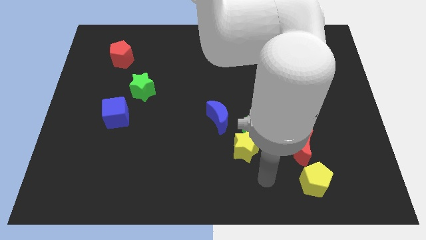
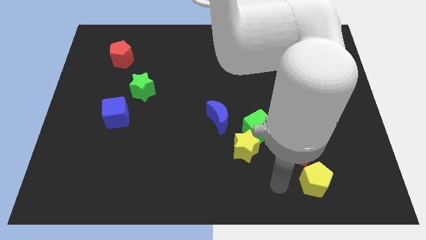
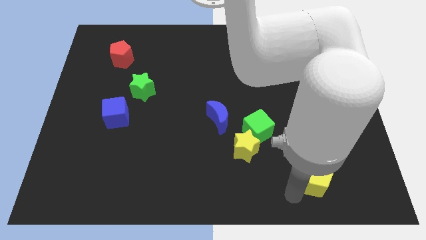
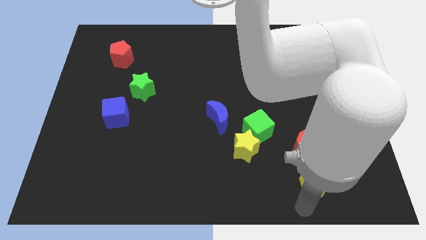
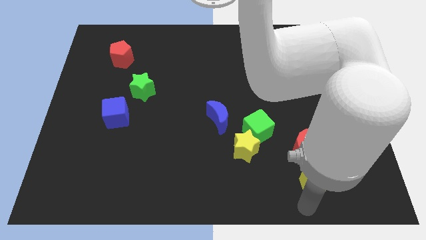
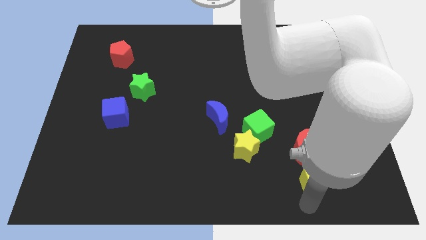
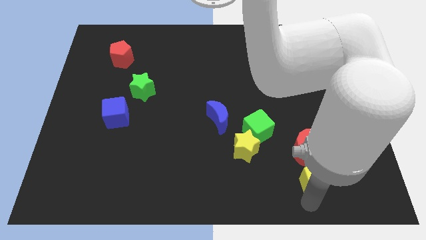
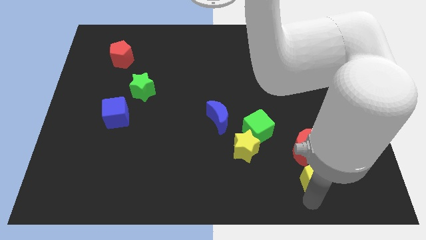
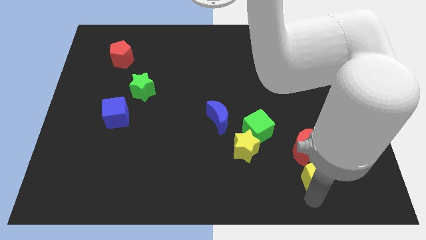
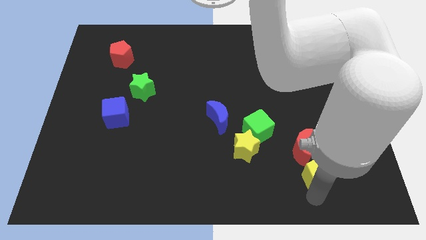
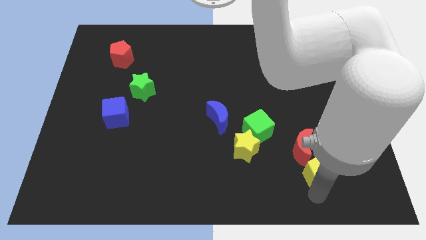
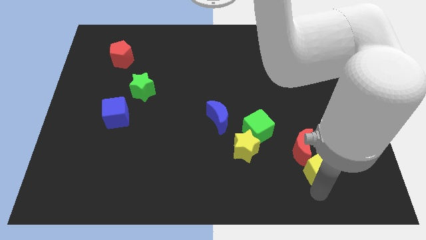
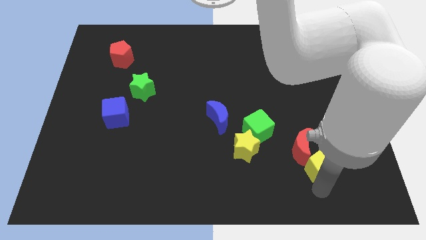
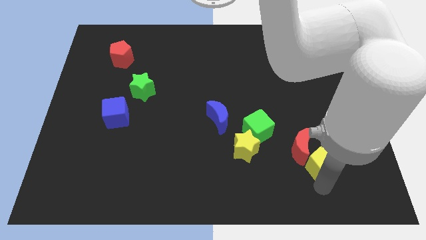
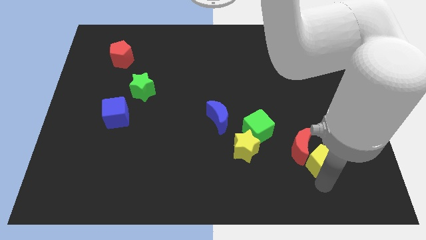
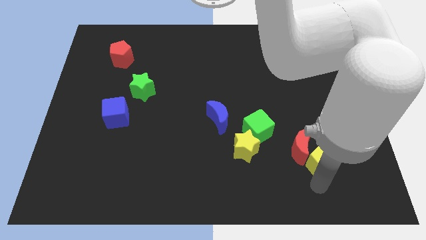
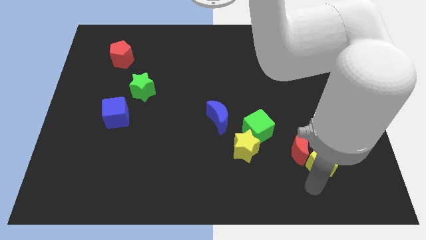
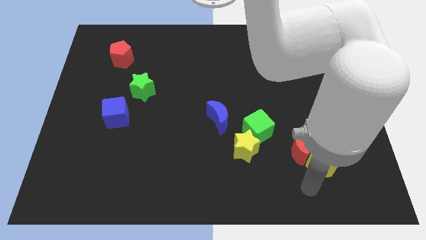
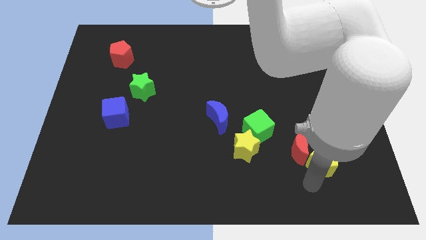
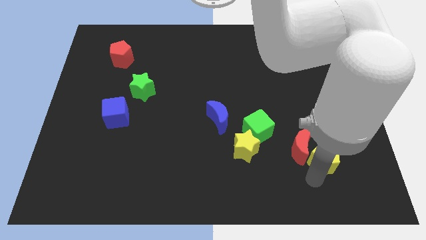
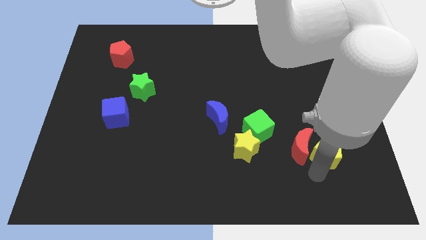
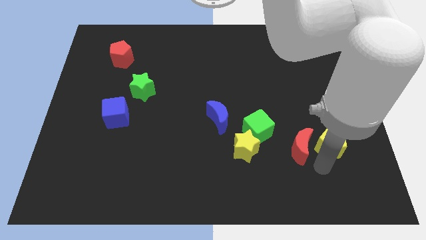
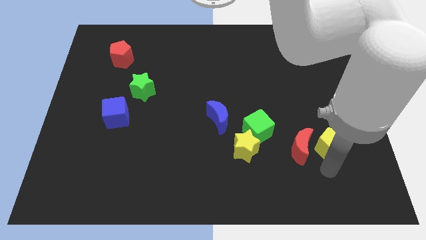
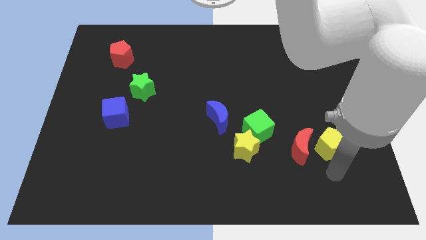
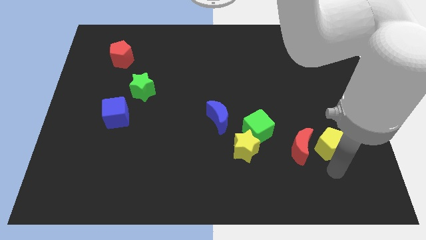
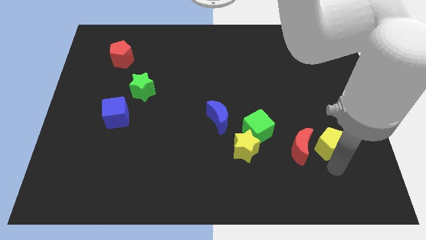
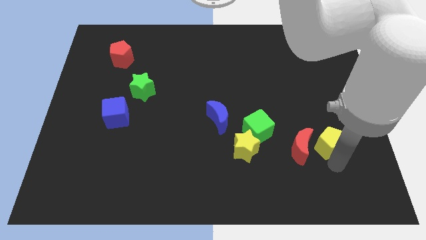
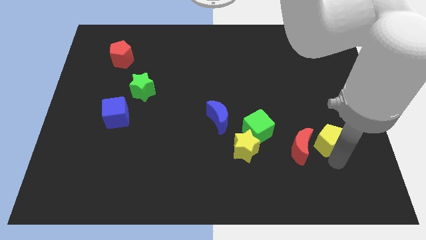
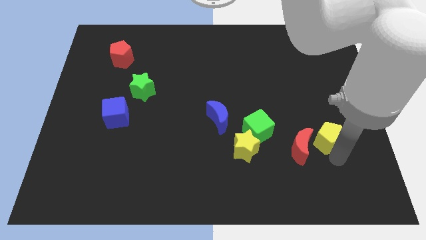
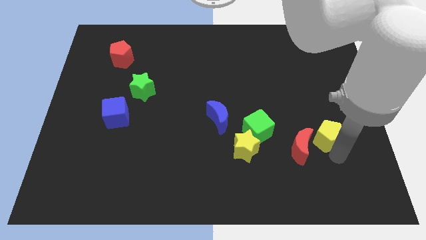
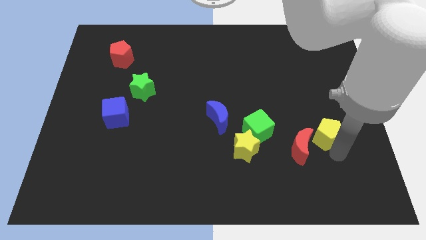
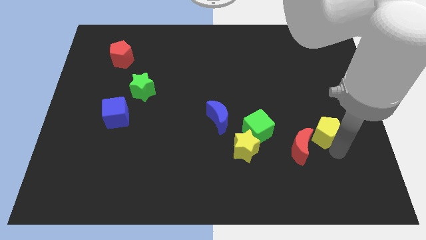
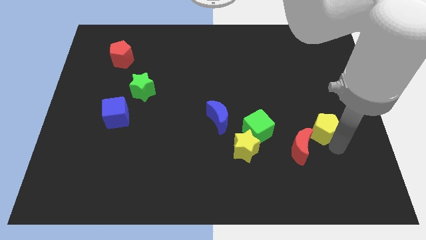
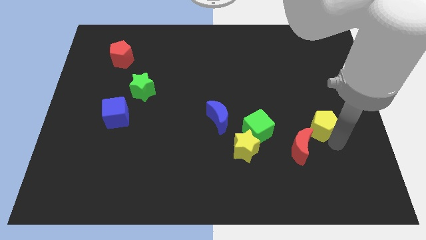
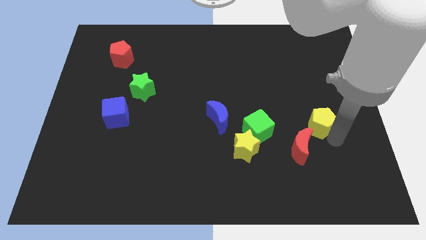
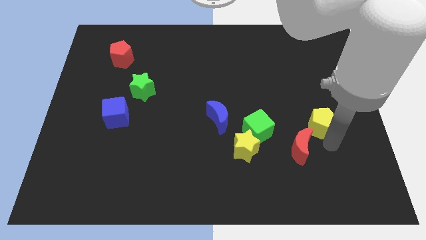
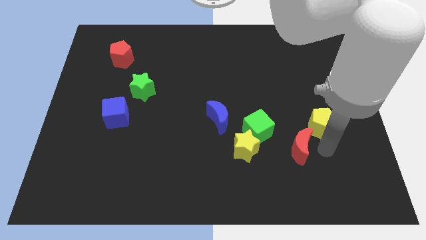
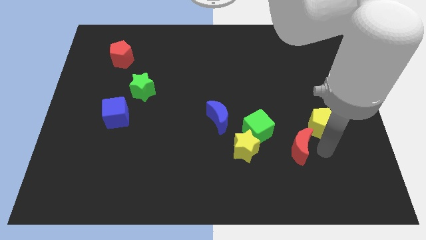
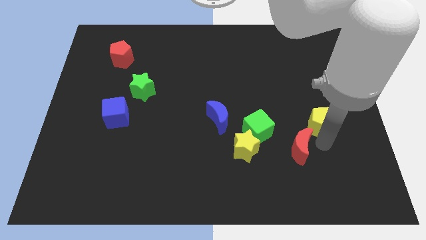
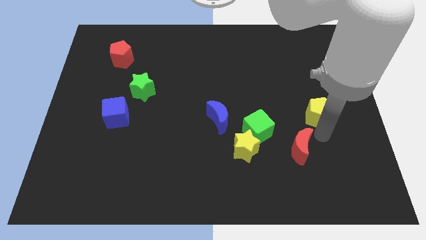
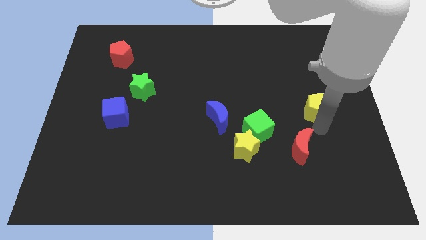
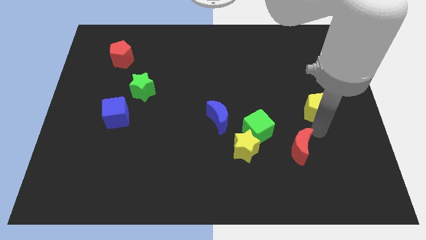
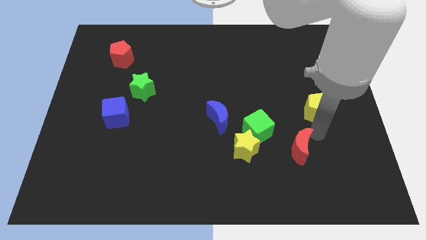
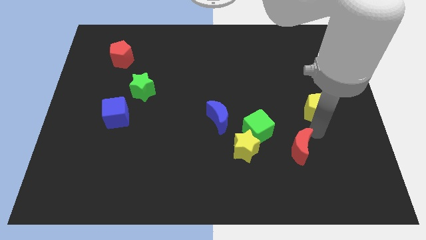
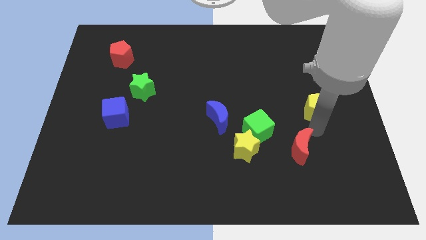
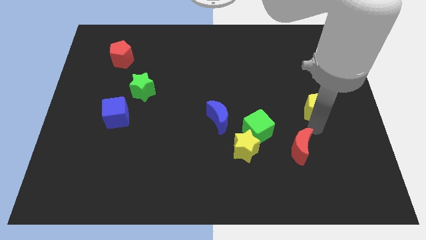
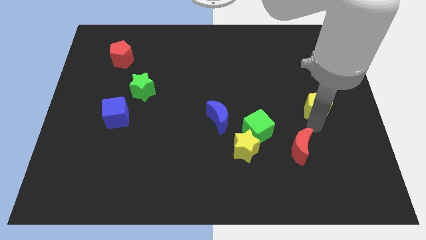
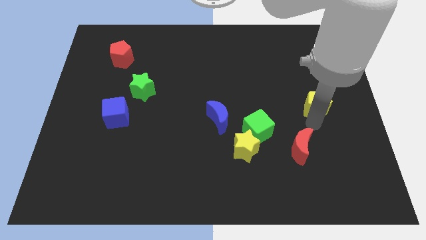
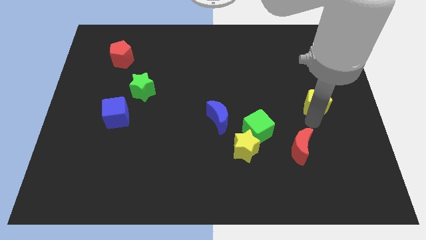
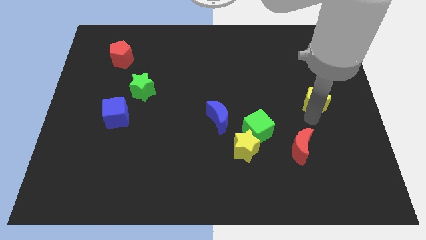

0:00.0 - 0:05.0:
move the yellow pentagon upwards

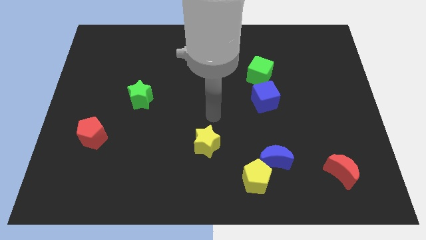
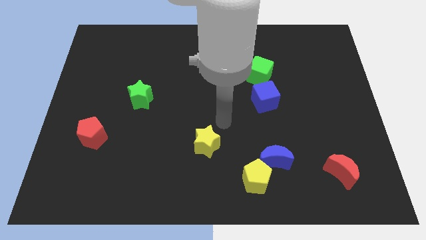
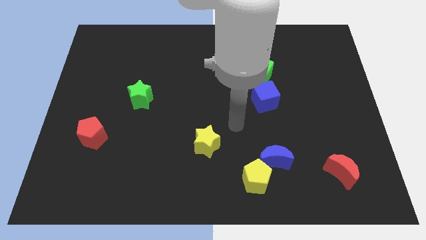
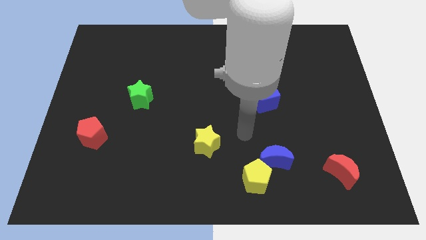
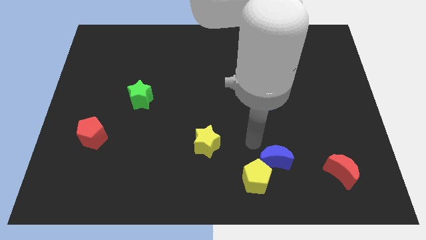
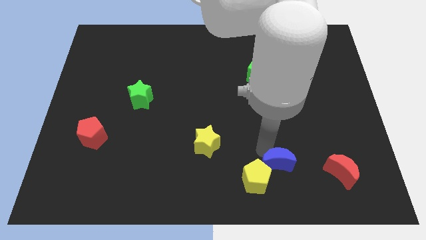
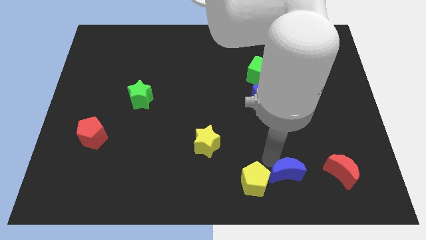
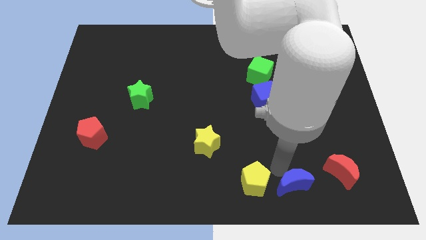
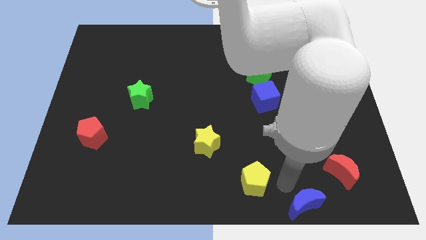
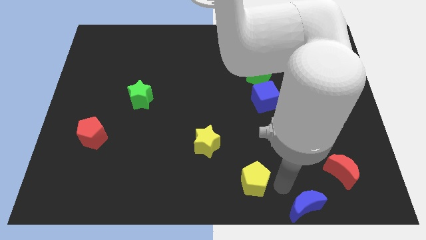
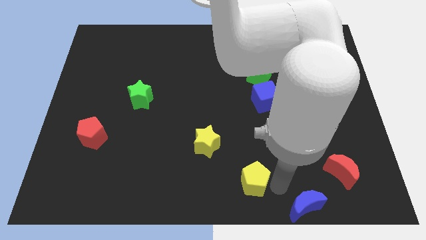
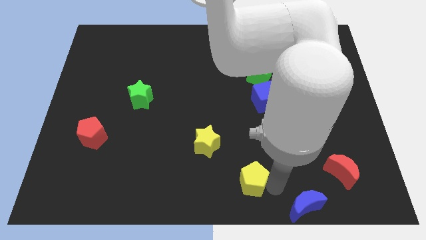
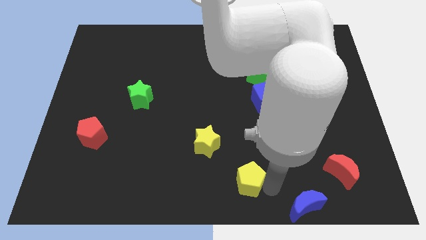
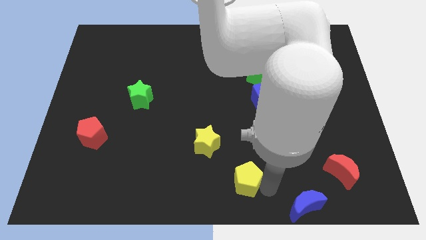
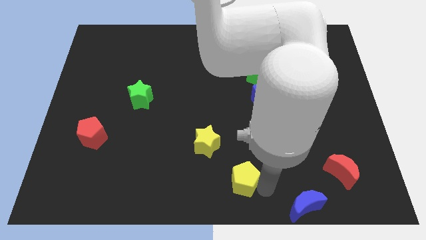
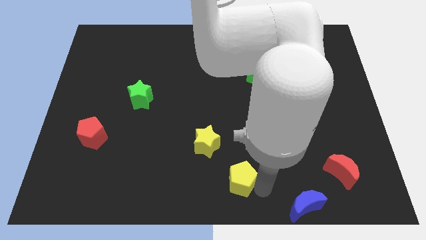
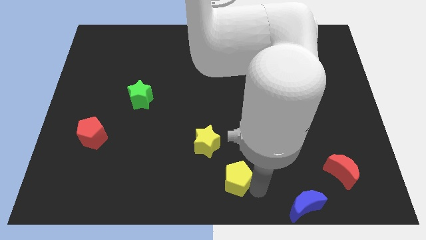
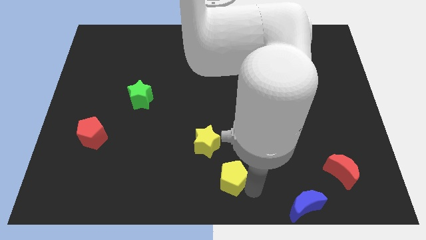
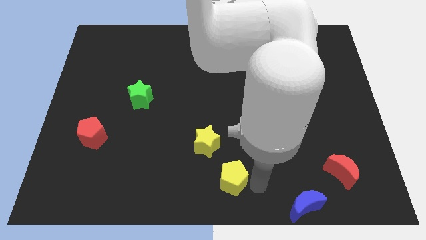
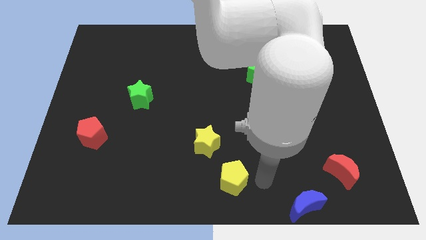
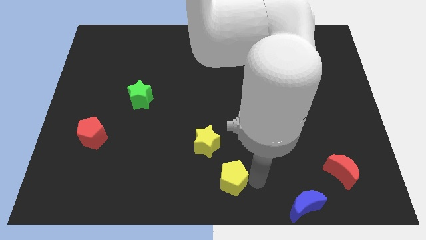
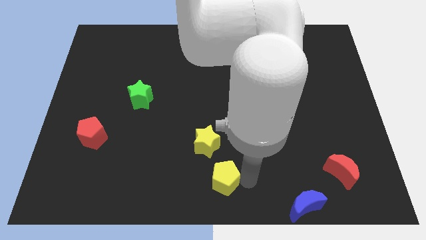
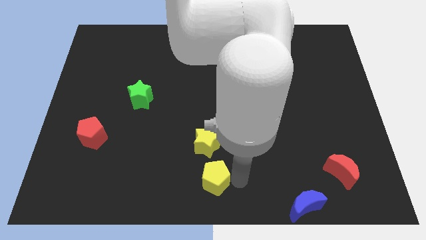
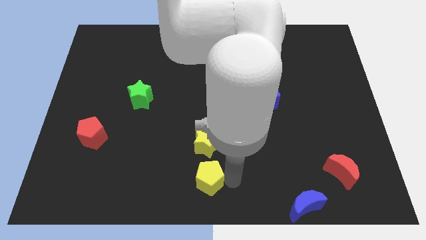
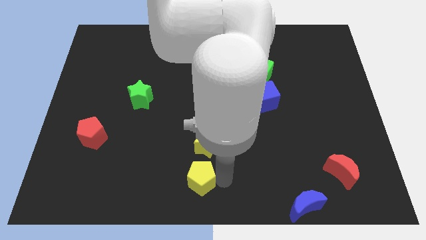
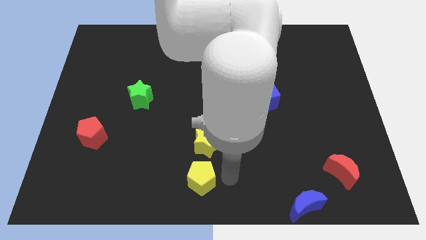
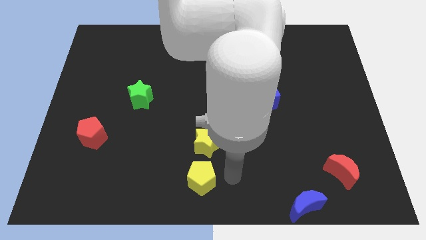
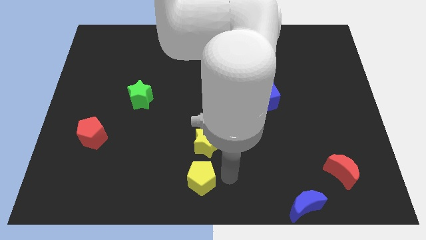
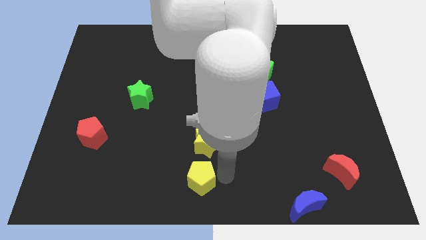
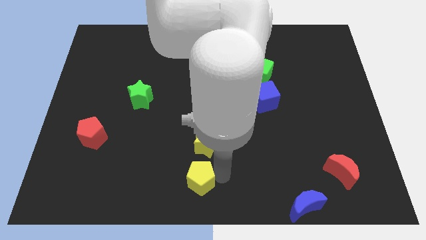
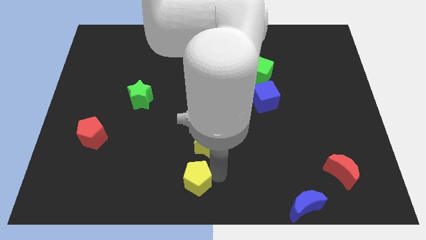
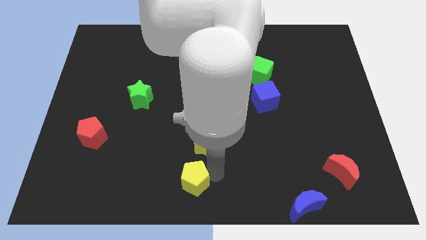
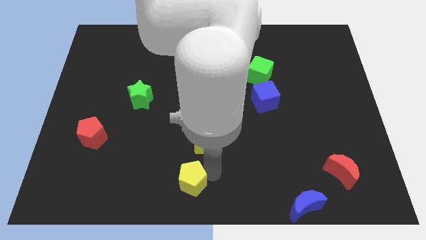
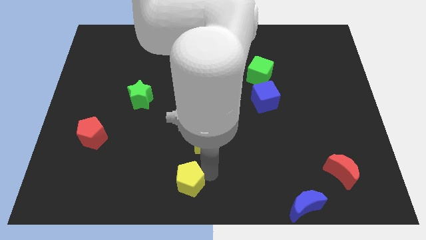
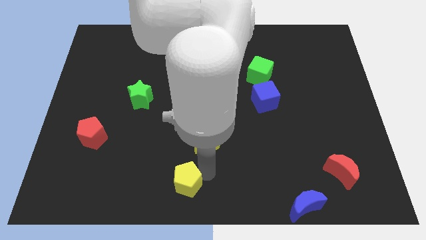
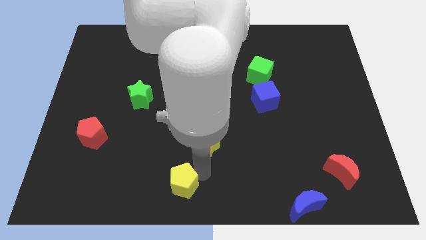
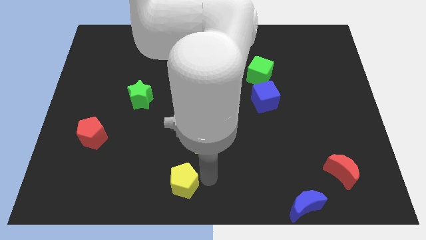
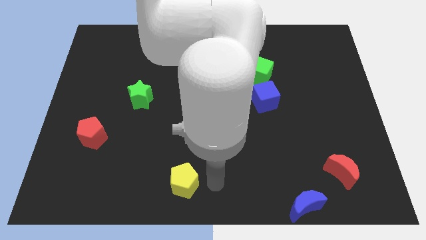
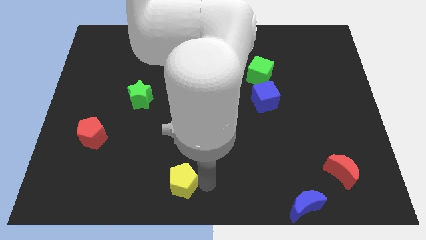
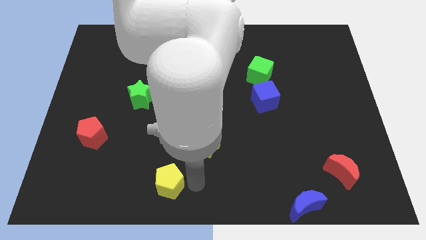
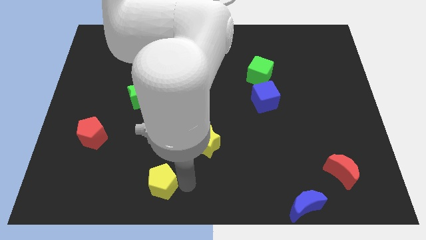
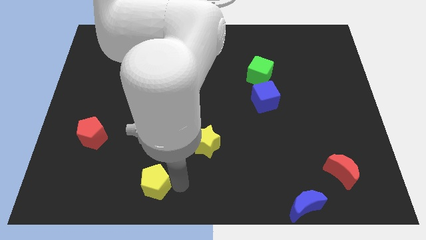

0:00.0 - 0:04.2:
slide the yellow pentagon to the left
